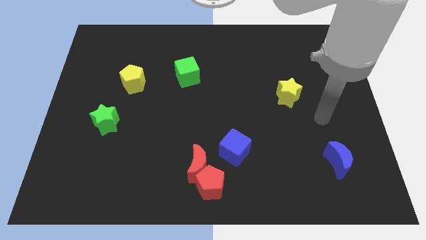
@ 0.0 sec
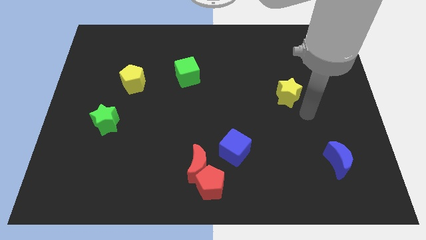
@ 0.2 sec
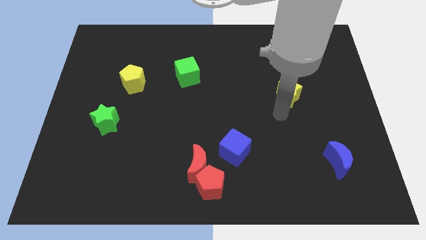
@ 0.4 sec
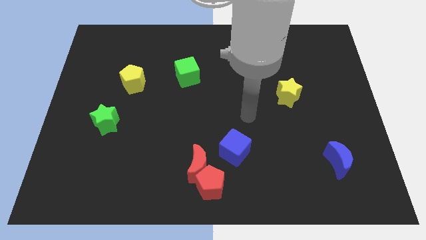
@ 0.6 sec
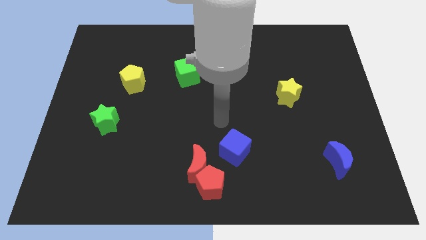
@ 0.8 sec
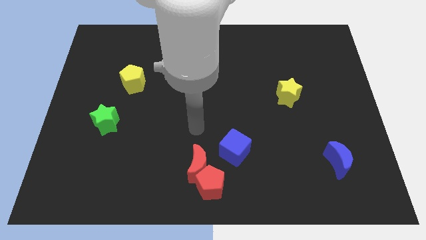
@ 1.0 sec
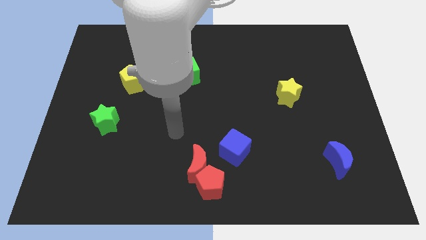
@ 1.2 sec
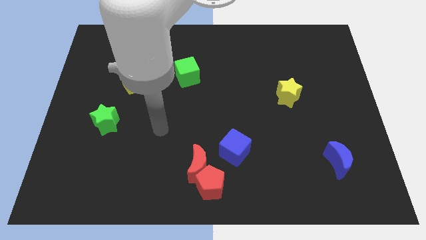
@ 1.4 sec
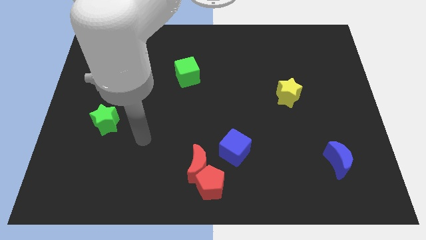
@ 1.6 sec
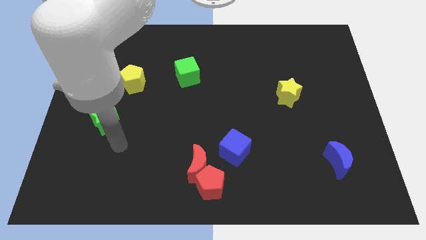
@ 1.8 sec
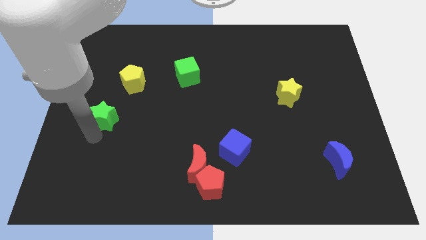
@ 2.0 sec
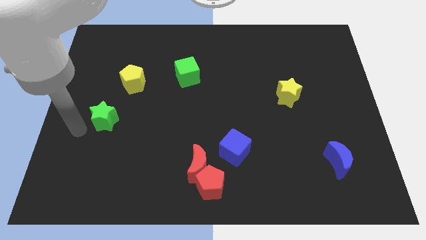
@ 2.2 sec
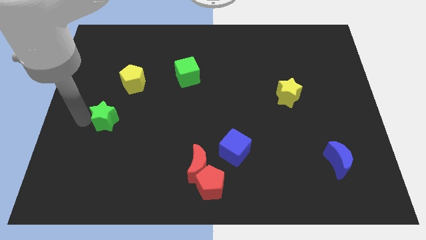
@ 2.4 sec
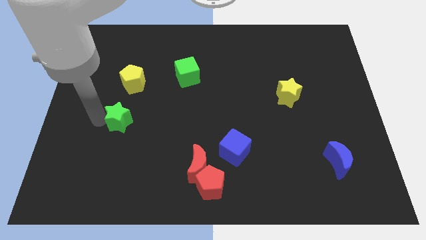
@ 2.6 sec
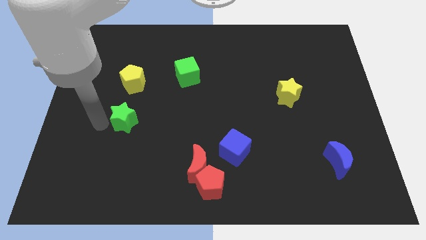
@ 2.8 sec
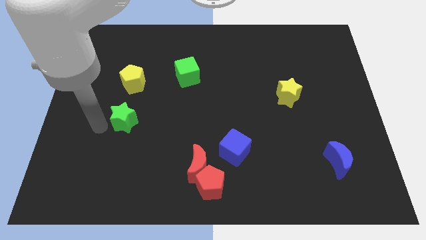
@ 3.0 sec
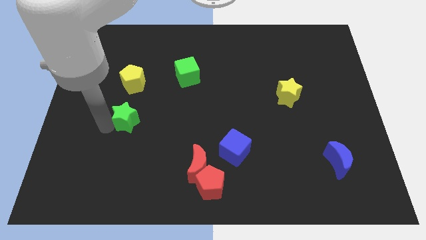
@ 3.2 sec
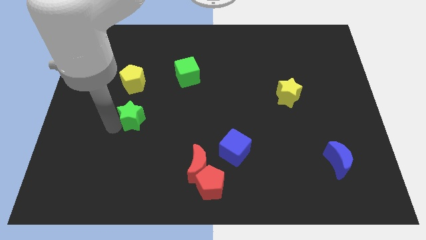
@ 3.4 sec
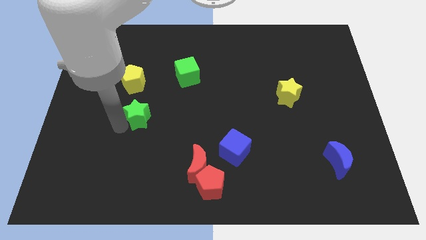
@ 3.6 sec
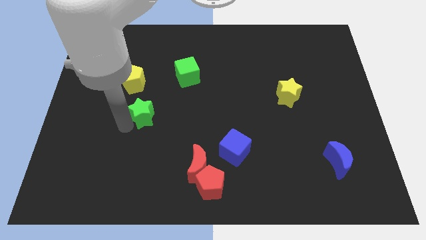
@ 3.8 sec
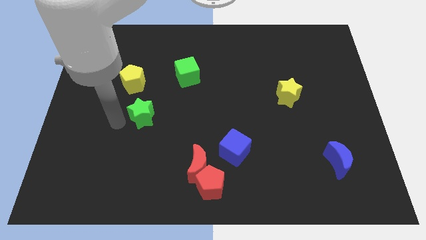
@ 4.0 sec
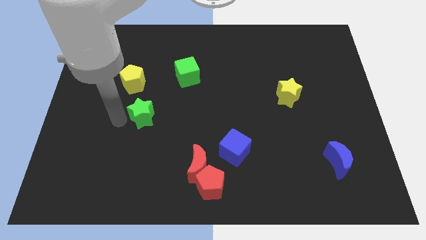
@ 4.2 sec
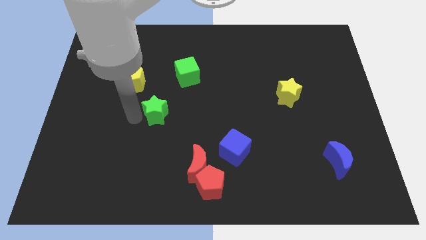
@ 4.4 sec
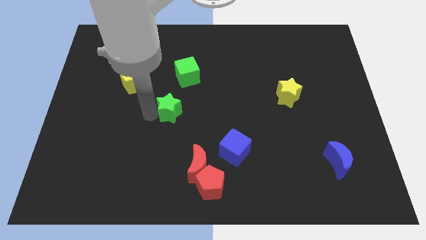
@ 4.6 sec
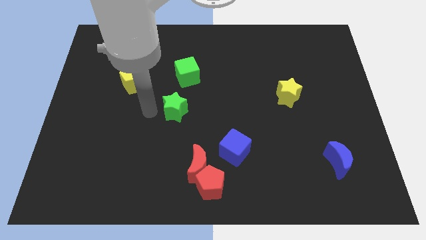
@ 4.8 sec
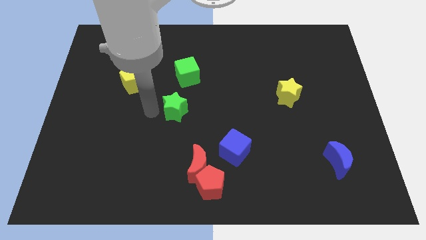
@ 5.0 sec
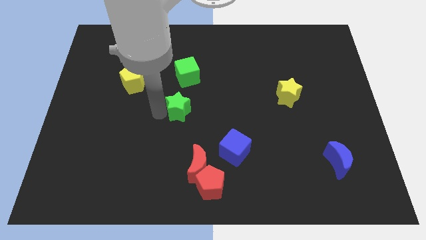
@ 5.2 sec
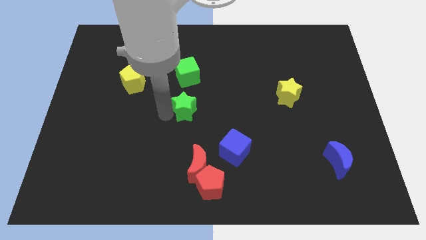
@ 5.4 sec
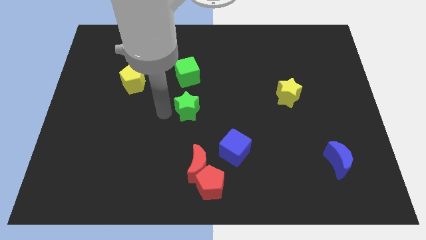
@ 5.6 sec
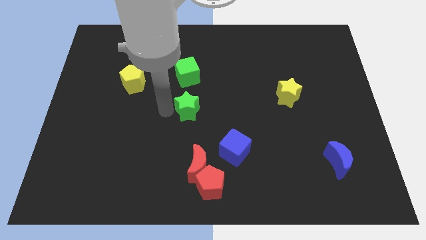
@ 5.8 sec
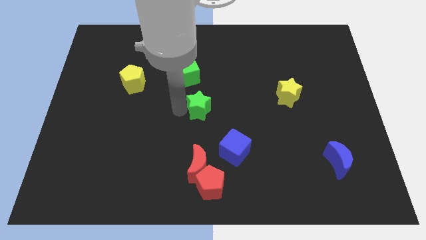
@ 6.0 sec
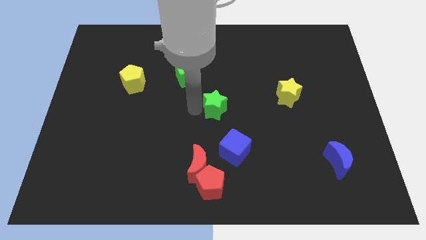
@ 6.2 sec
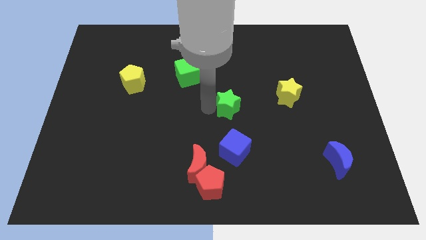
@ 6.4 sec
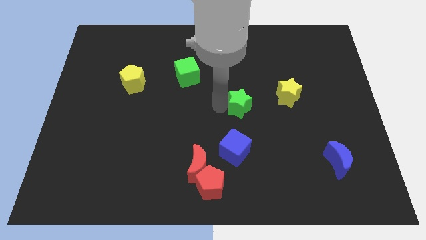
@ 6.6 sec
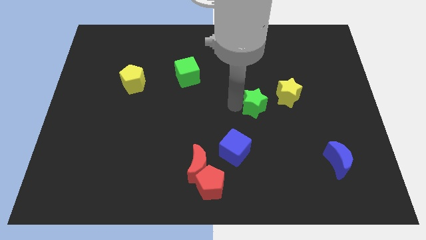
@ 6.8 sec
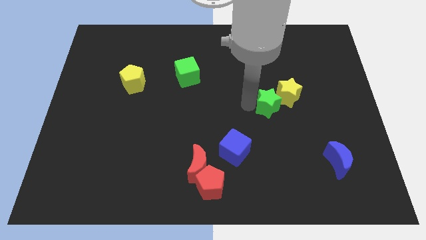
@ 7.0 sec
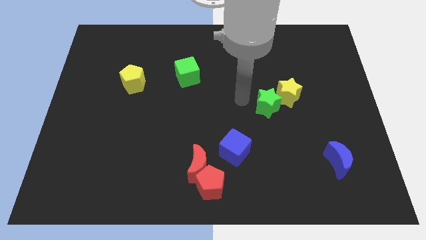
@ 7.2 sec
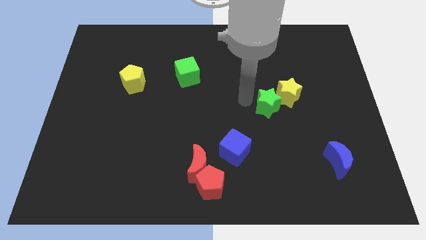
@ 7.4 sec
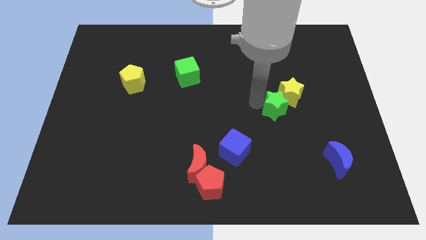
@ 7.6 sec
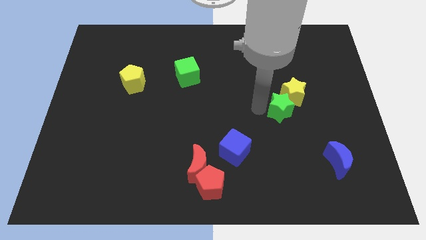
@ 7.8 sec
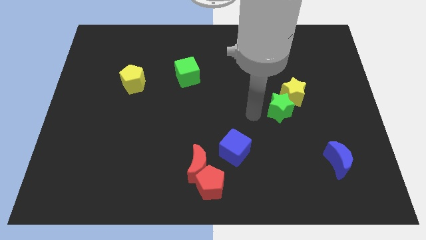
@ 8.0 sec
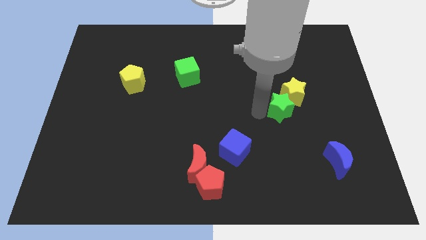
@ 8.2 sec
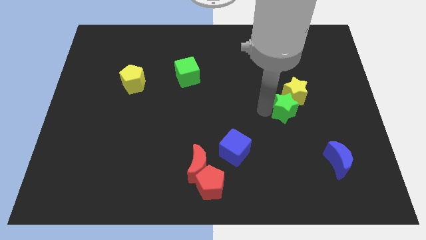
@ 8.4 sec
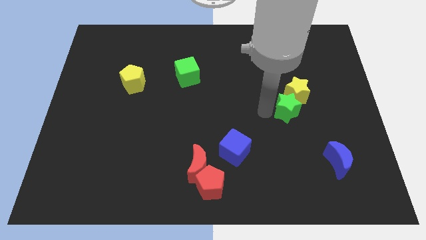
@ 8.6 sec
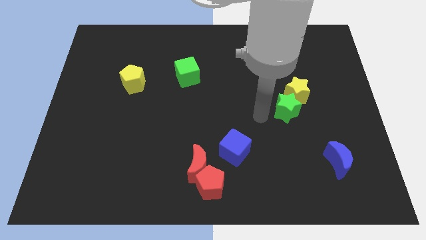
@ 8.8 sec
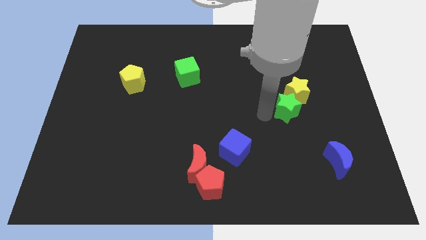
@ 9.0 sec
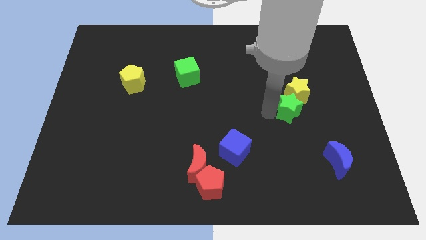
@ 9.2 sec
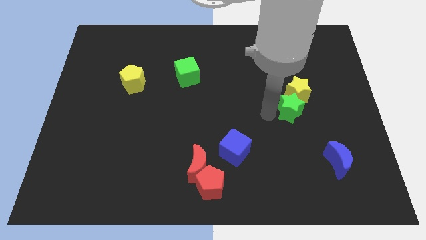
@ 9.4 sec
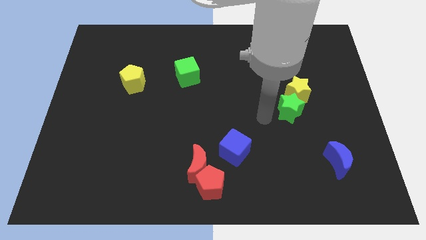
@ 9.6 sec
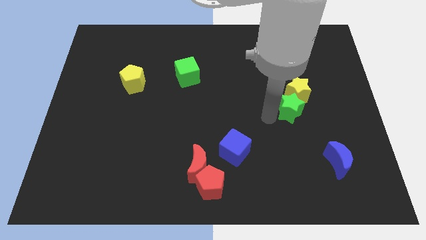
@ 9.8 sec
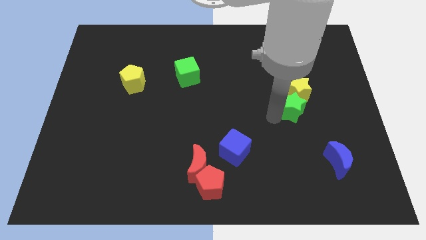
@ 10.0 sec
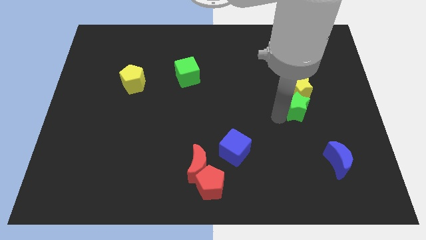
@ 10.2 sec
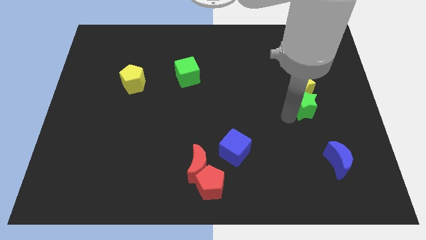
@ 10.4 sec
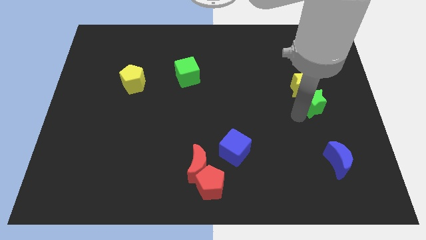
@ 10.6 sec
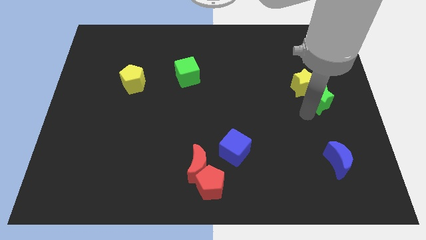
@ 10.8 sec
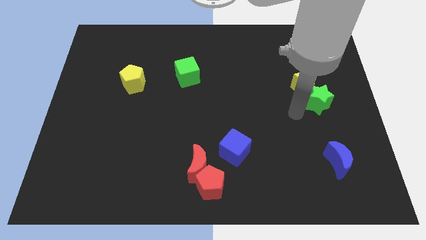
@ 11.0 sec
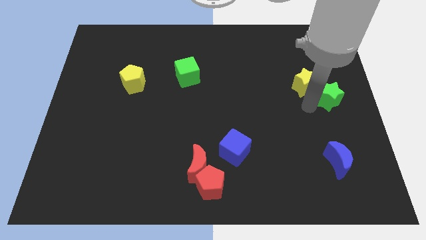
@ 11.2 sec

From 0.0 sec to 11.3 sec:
put the green star to the right of the yellow star

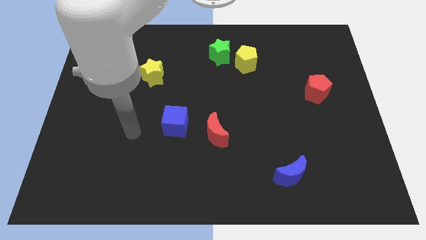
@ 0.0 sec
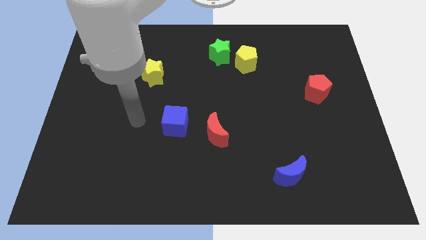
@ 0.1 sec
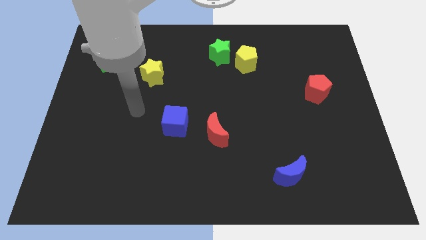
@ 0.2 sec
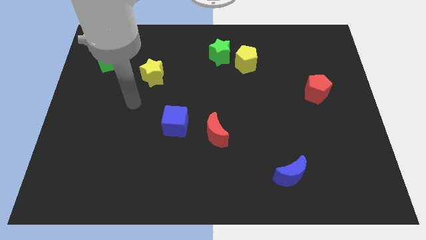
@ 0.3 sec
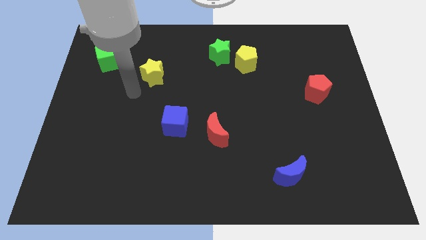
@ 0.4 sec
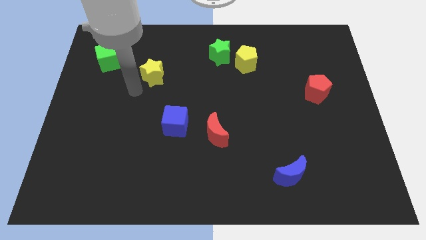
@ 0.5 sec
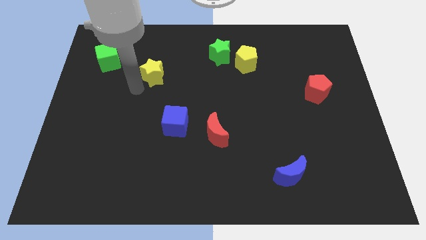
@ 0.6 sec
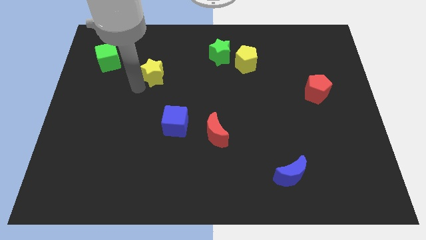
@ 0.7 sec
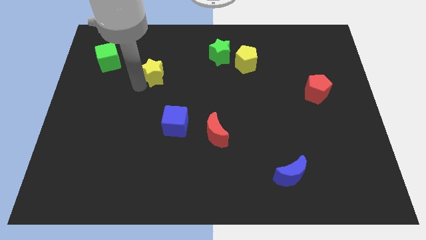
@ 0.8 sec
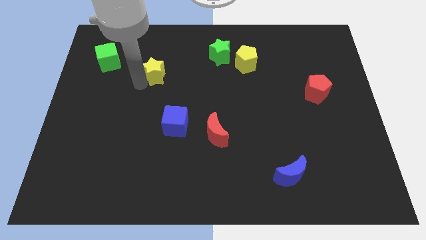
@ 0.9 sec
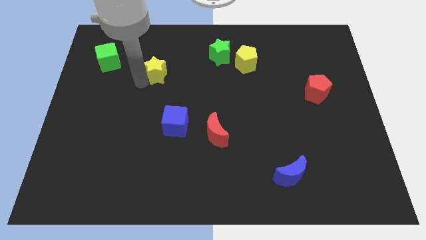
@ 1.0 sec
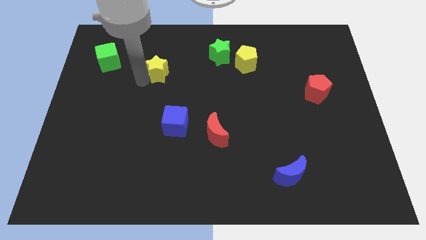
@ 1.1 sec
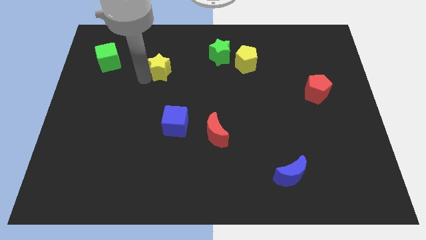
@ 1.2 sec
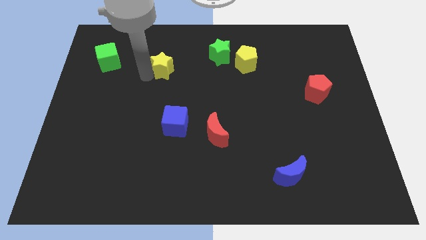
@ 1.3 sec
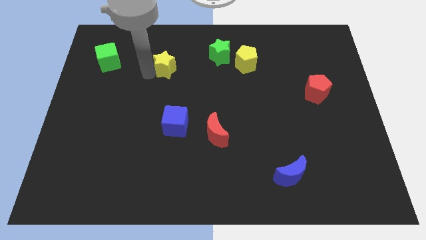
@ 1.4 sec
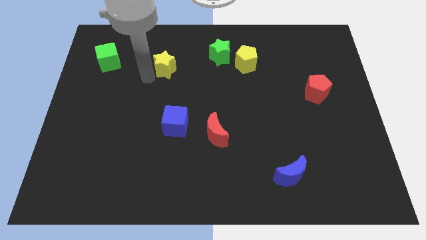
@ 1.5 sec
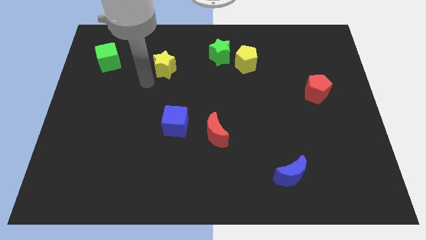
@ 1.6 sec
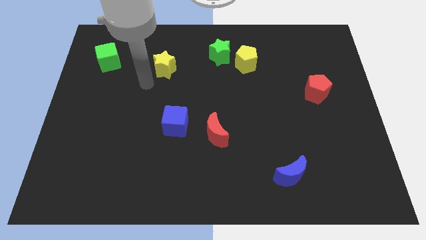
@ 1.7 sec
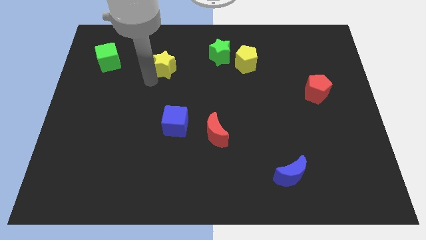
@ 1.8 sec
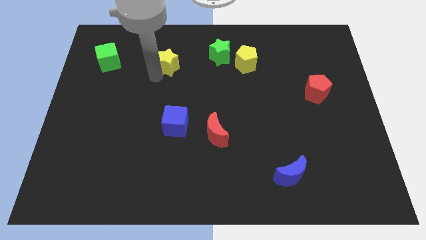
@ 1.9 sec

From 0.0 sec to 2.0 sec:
slide the yellow star to the left of the green star
